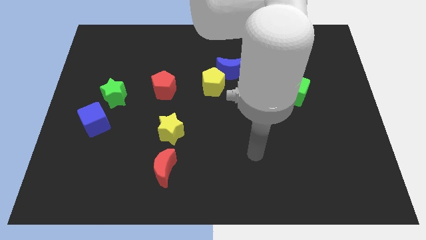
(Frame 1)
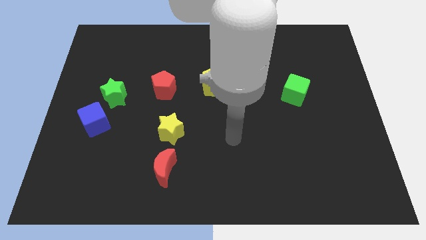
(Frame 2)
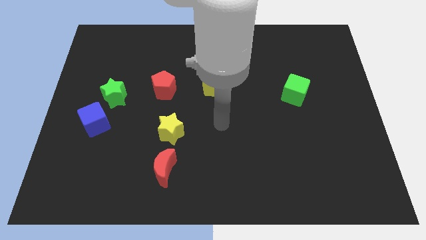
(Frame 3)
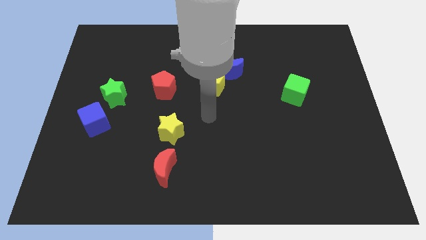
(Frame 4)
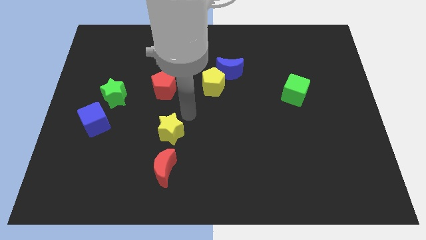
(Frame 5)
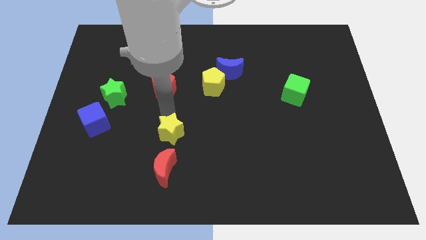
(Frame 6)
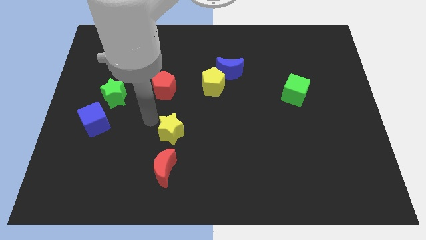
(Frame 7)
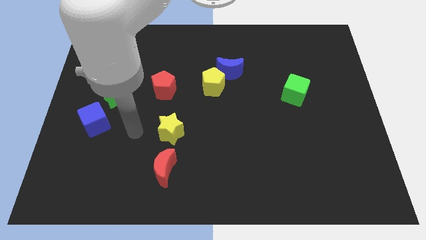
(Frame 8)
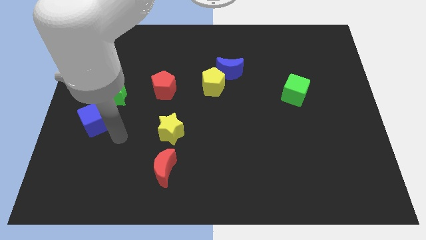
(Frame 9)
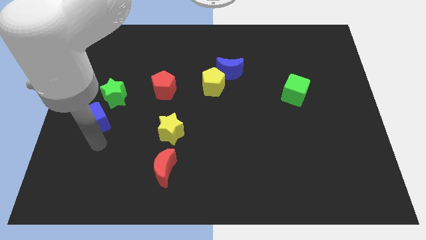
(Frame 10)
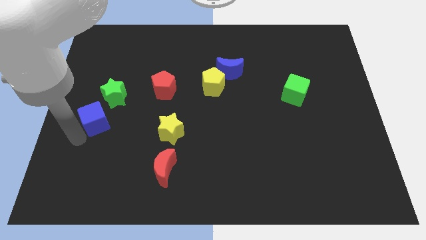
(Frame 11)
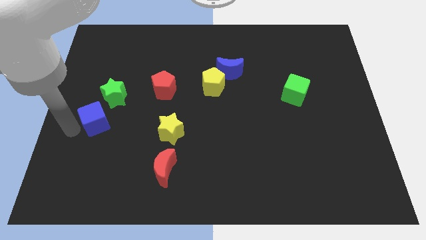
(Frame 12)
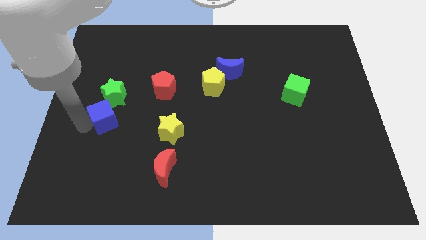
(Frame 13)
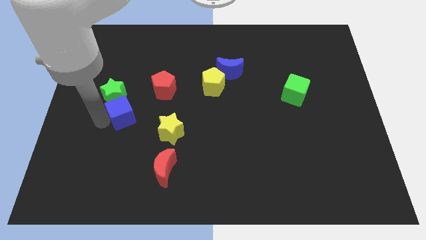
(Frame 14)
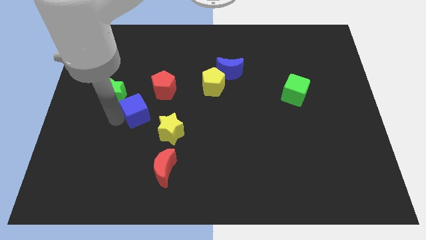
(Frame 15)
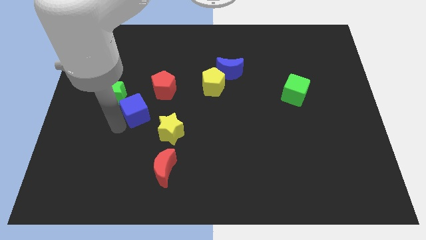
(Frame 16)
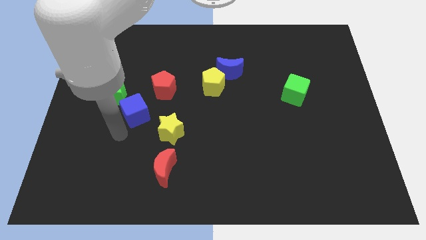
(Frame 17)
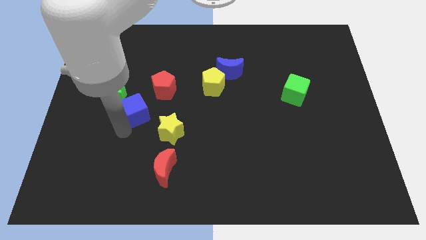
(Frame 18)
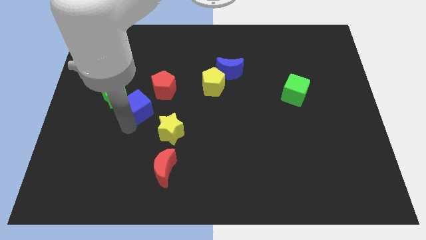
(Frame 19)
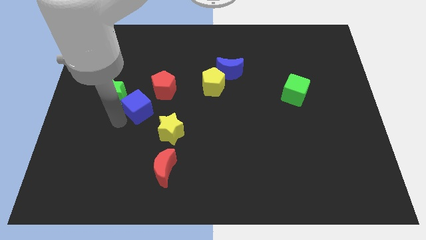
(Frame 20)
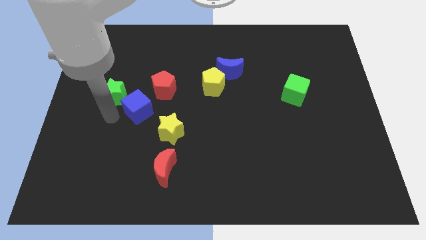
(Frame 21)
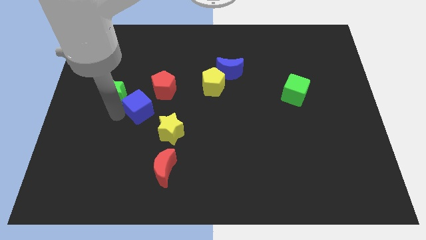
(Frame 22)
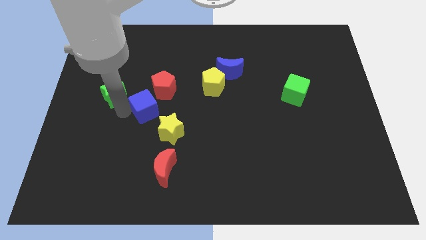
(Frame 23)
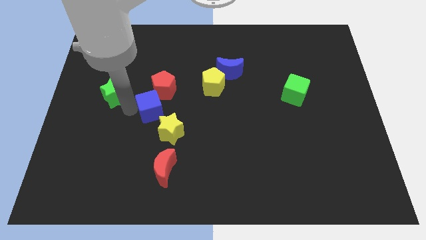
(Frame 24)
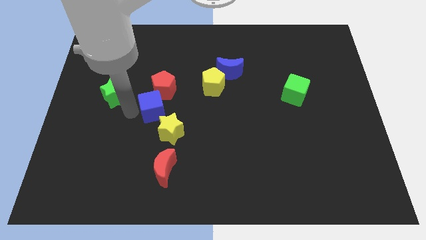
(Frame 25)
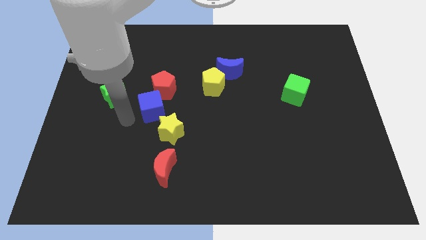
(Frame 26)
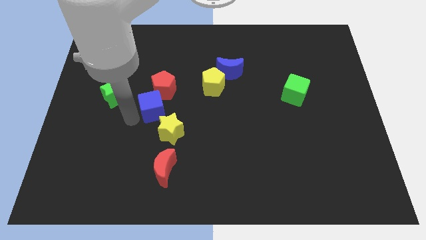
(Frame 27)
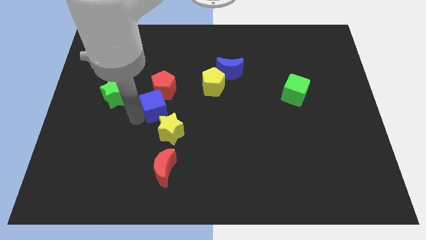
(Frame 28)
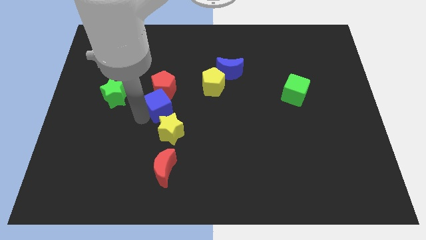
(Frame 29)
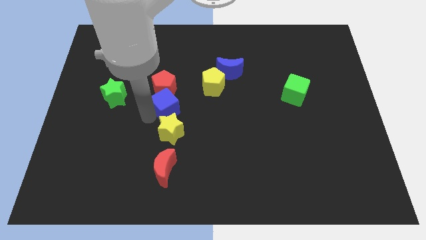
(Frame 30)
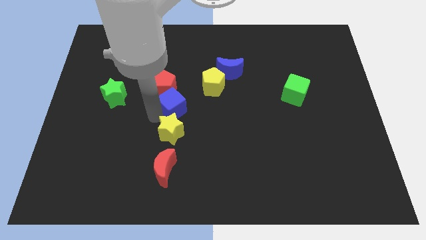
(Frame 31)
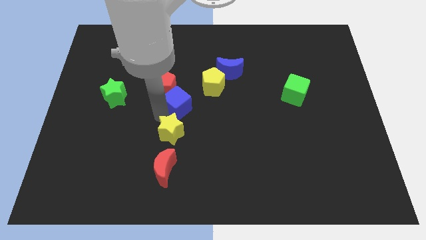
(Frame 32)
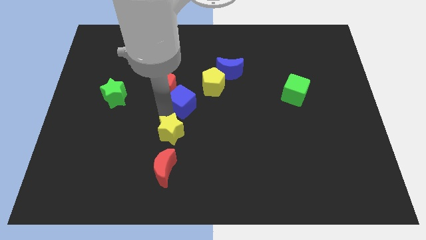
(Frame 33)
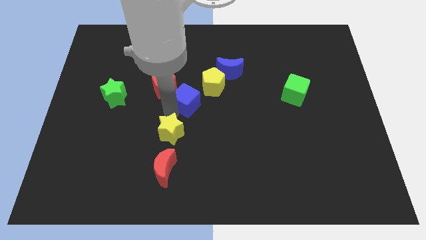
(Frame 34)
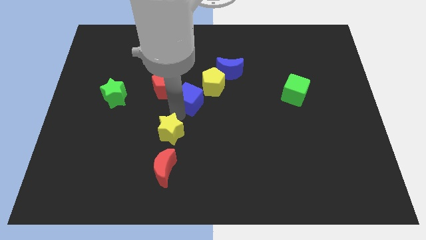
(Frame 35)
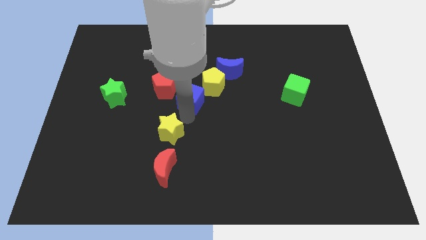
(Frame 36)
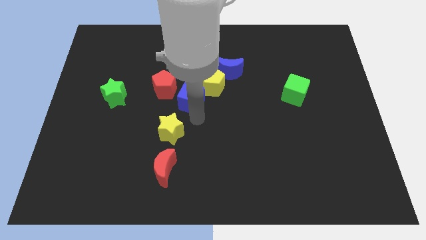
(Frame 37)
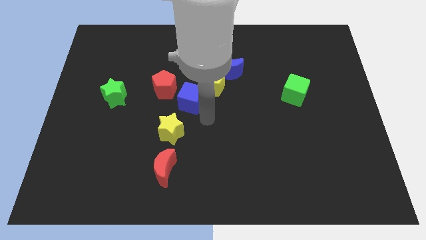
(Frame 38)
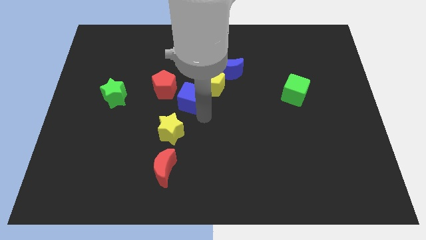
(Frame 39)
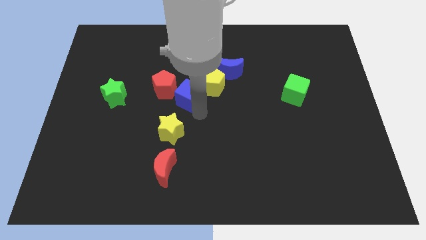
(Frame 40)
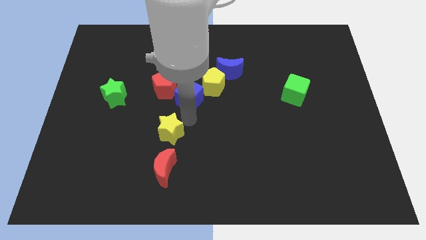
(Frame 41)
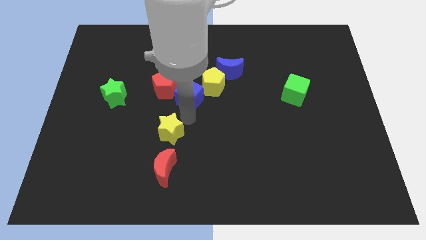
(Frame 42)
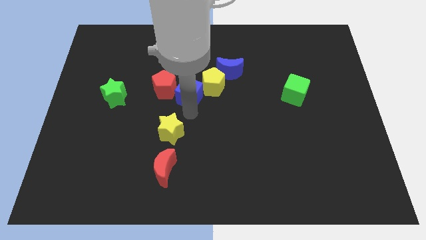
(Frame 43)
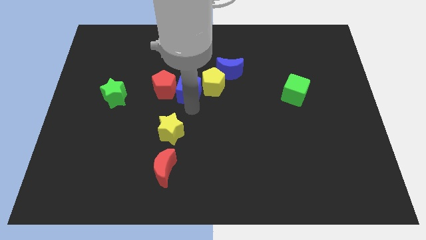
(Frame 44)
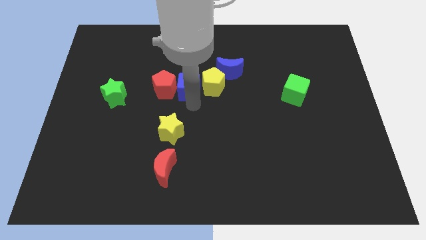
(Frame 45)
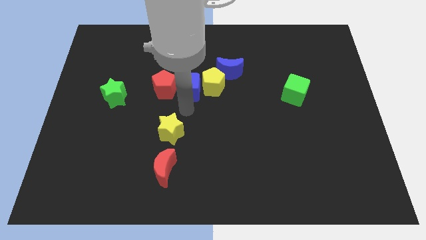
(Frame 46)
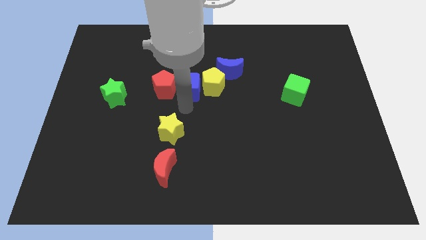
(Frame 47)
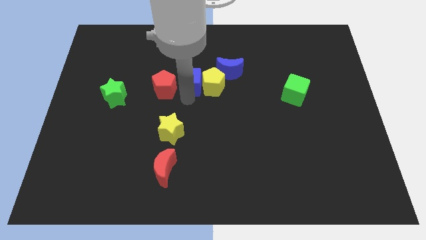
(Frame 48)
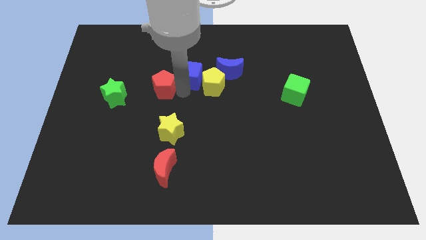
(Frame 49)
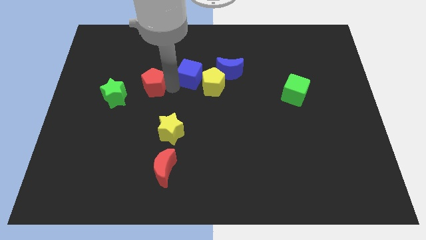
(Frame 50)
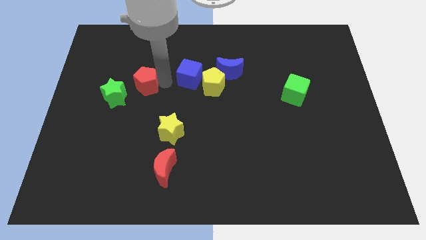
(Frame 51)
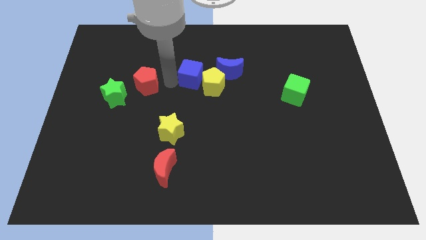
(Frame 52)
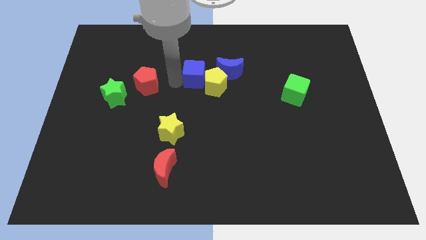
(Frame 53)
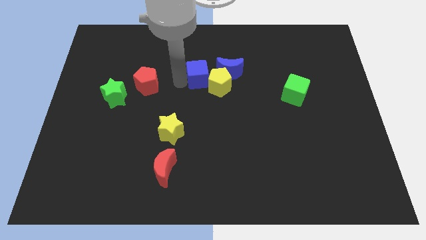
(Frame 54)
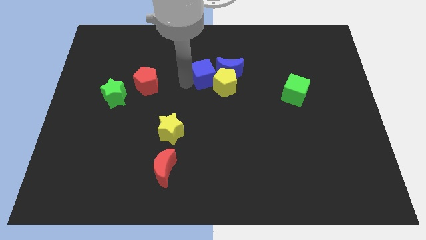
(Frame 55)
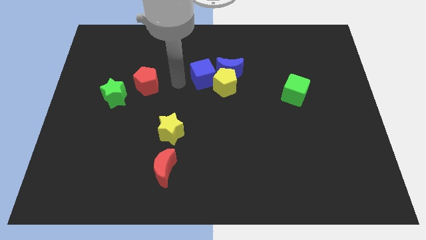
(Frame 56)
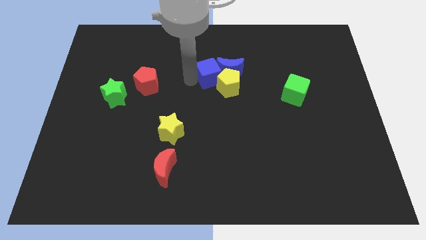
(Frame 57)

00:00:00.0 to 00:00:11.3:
slide the blue cube to the blue moon
